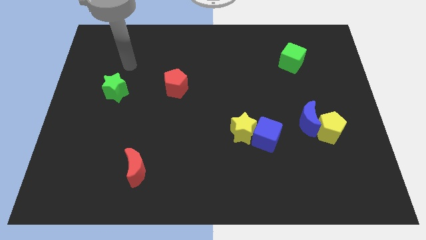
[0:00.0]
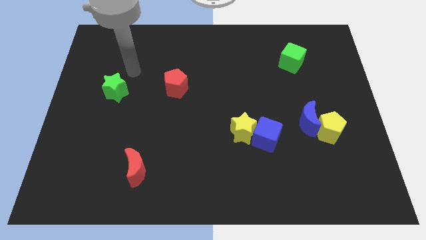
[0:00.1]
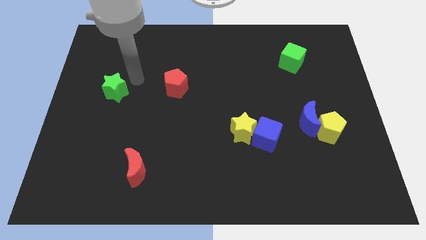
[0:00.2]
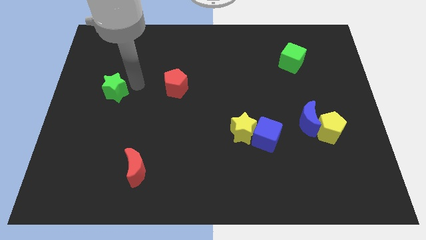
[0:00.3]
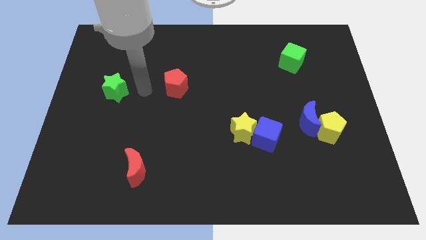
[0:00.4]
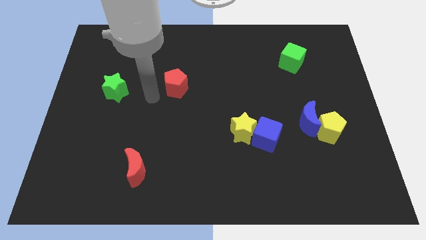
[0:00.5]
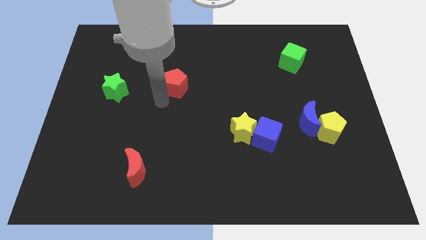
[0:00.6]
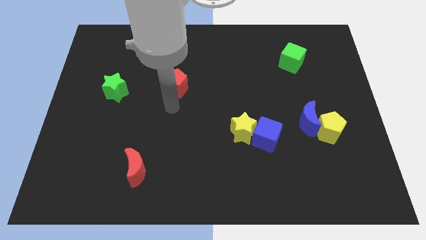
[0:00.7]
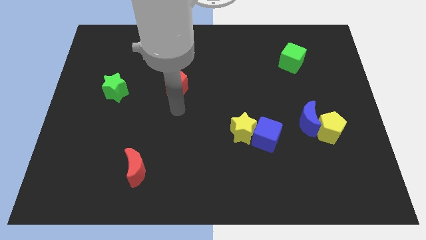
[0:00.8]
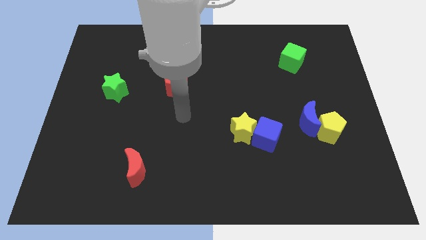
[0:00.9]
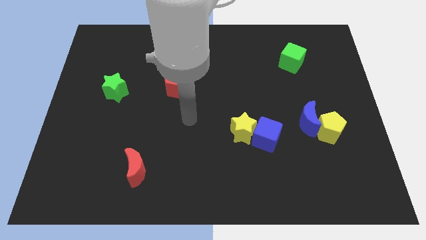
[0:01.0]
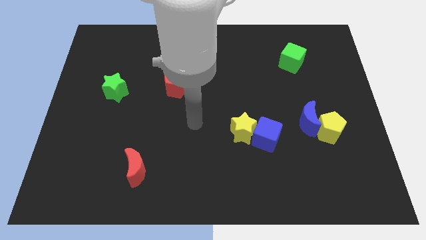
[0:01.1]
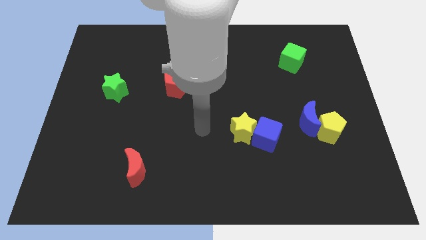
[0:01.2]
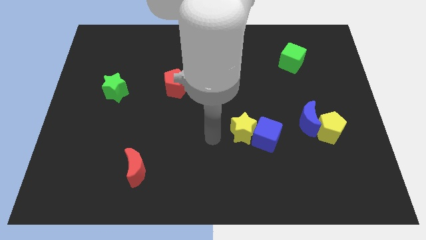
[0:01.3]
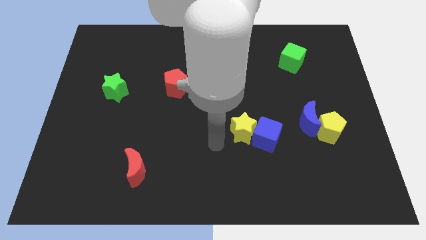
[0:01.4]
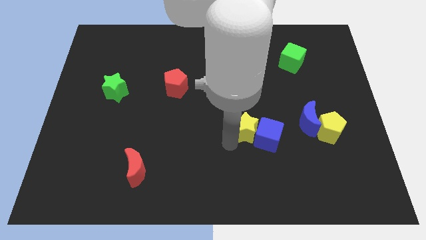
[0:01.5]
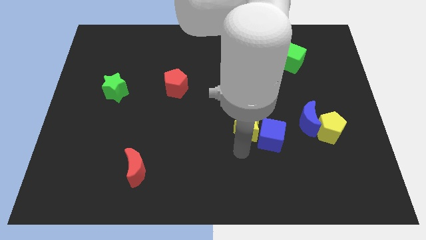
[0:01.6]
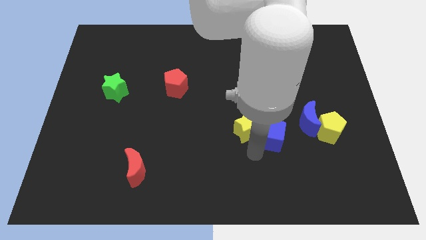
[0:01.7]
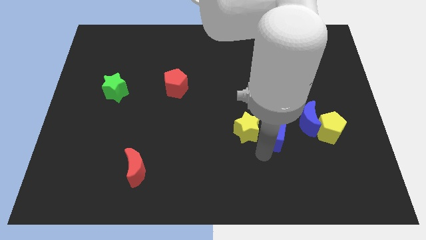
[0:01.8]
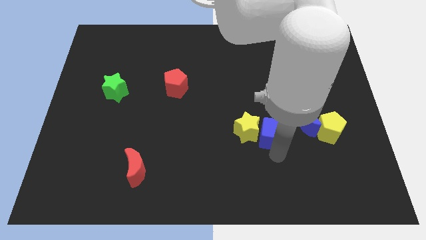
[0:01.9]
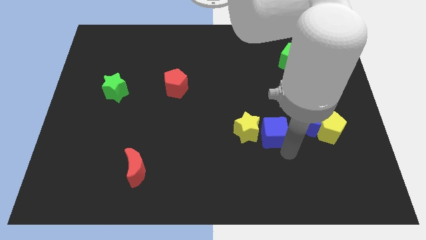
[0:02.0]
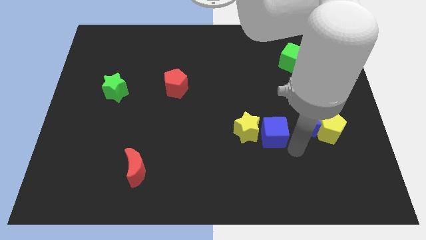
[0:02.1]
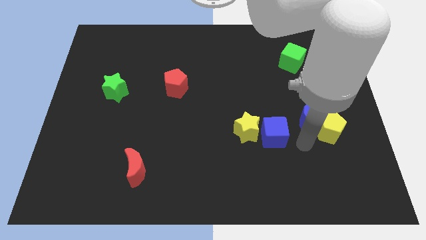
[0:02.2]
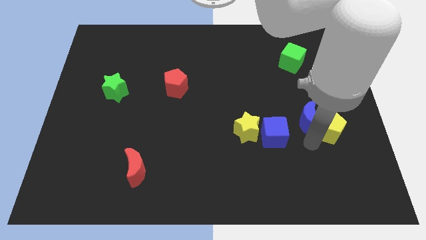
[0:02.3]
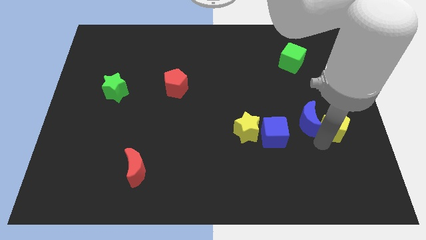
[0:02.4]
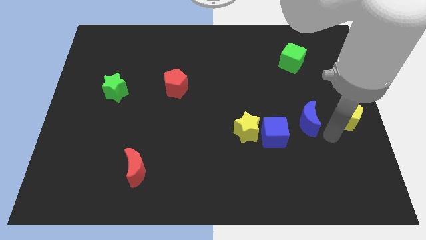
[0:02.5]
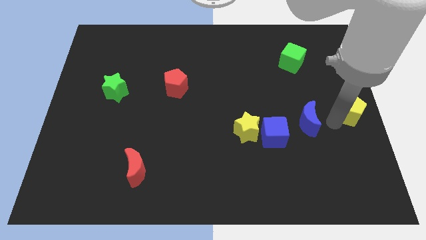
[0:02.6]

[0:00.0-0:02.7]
pull the blue moon apart from the yellow pentagon

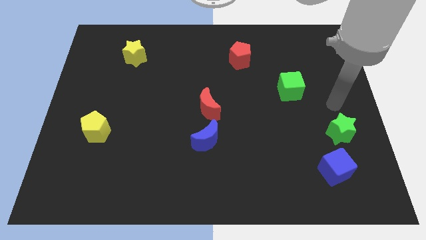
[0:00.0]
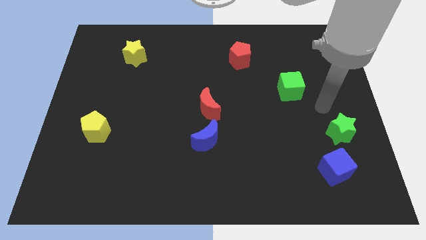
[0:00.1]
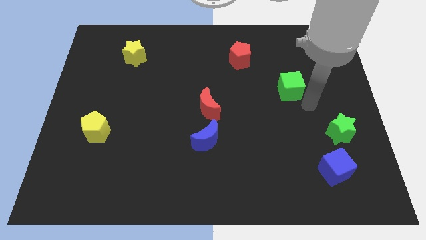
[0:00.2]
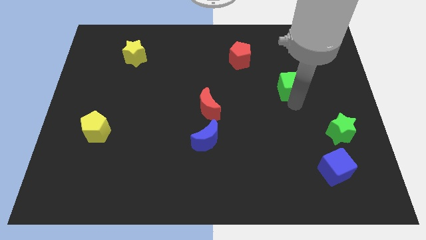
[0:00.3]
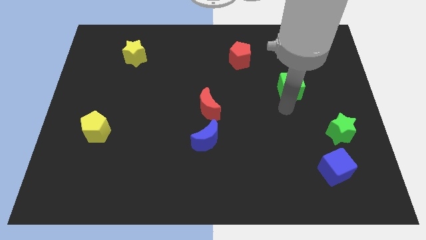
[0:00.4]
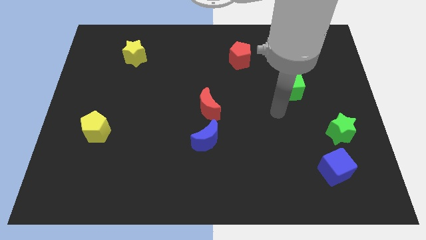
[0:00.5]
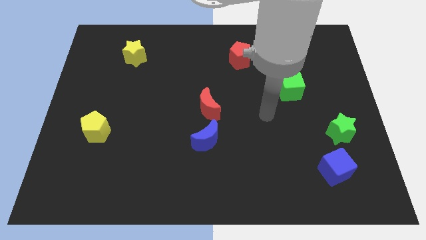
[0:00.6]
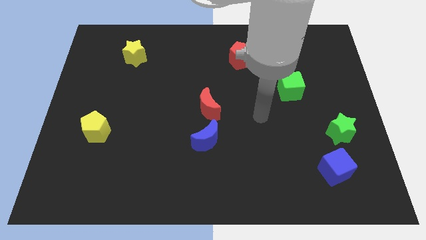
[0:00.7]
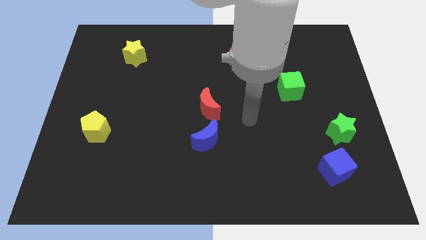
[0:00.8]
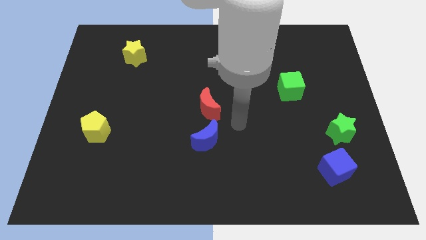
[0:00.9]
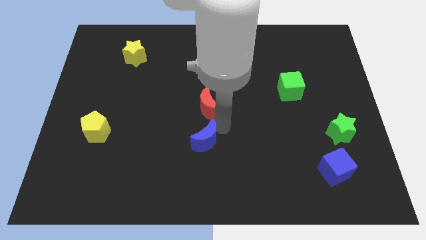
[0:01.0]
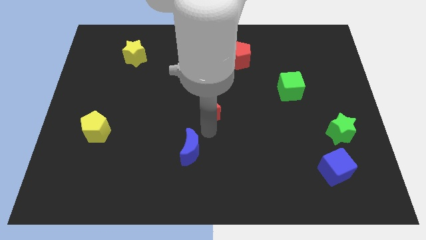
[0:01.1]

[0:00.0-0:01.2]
pull the red moon apart from the blue moon

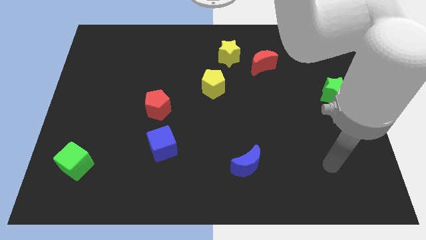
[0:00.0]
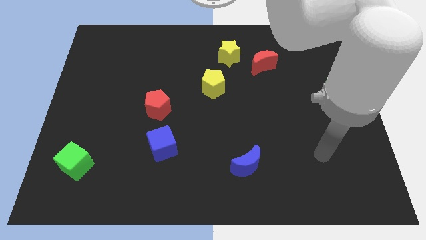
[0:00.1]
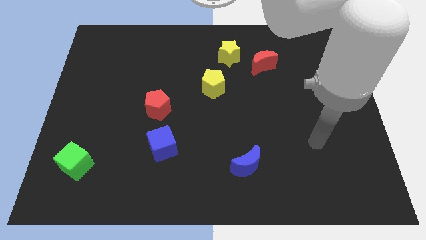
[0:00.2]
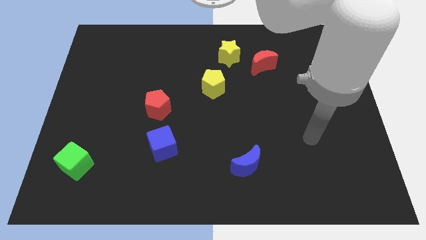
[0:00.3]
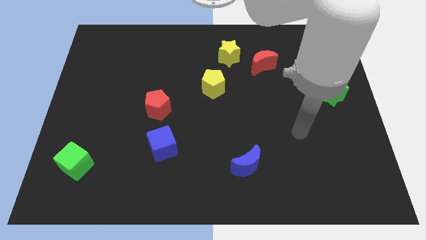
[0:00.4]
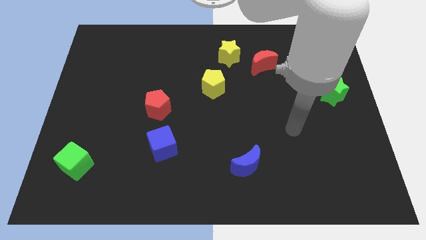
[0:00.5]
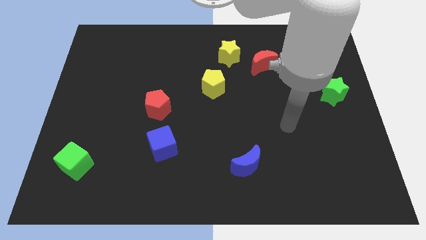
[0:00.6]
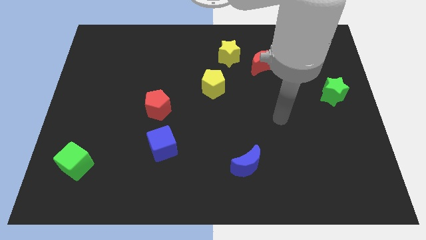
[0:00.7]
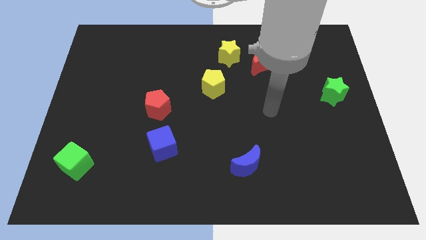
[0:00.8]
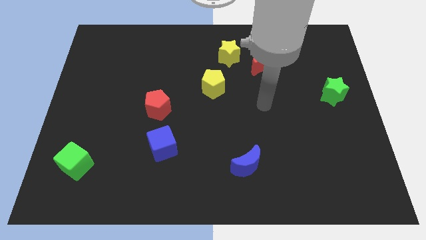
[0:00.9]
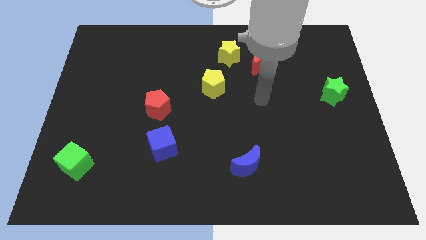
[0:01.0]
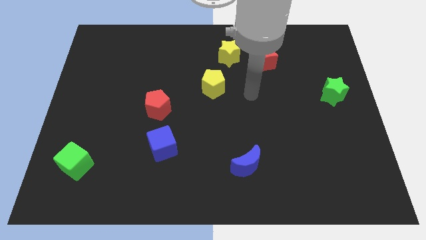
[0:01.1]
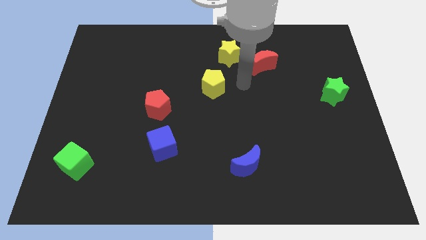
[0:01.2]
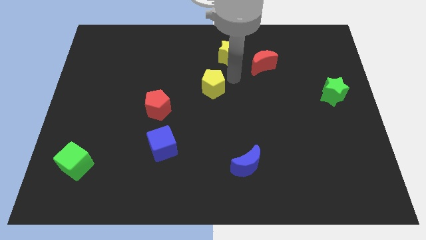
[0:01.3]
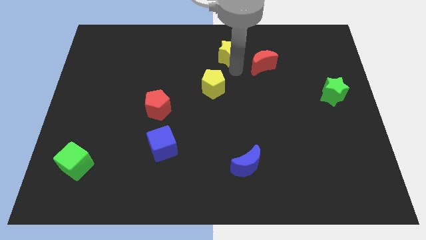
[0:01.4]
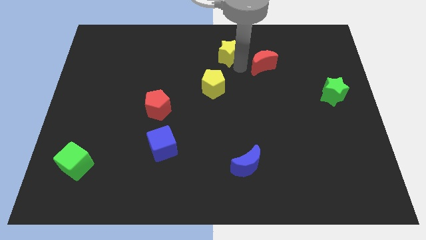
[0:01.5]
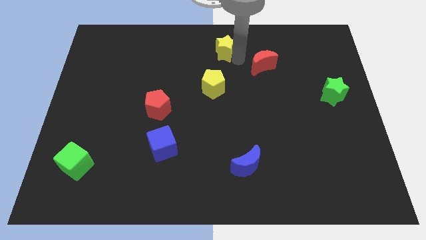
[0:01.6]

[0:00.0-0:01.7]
pull the red moon apart from the yellow star

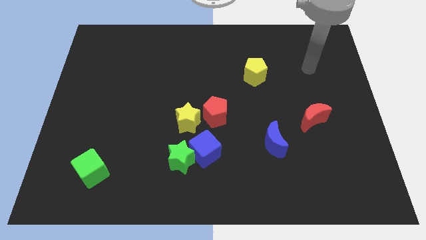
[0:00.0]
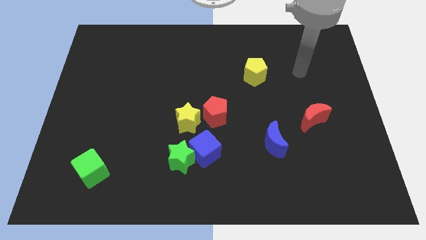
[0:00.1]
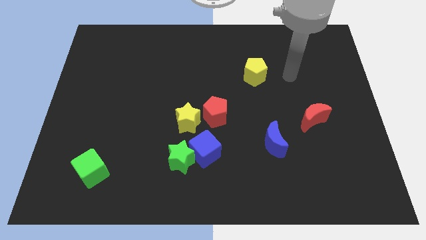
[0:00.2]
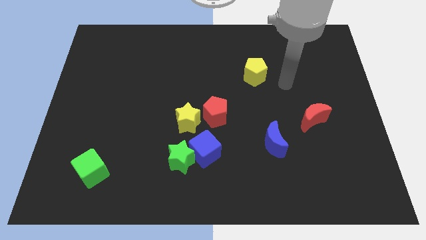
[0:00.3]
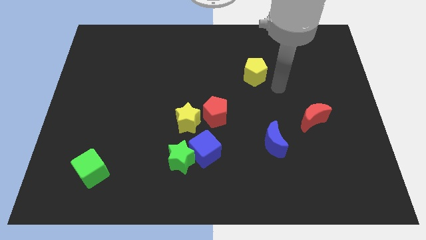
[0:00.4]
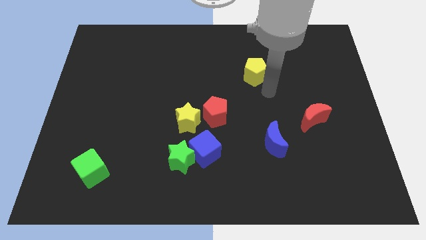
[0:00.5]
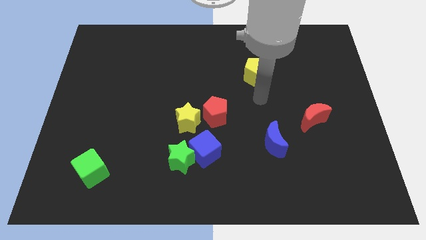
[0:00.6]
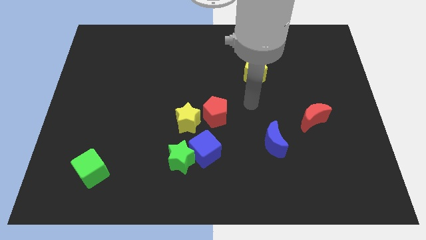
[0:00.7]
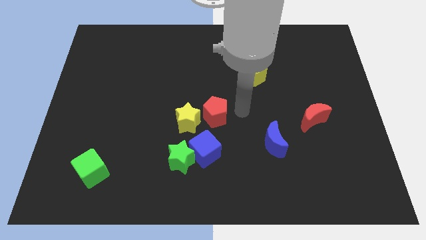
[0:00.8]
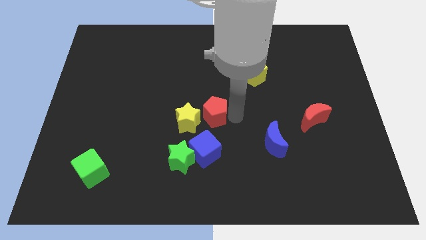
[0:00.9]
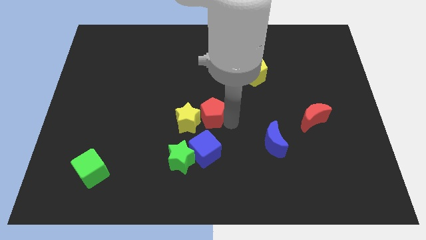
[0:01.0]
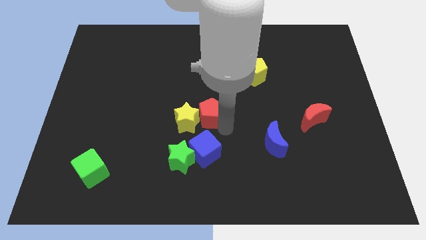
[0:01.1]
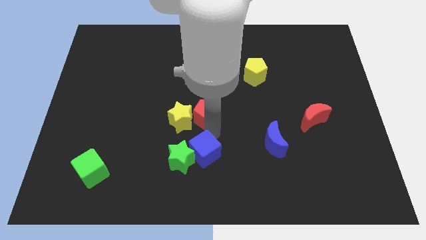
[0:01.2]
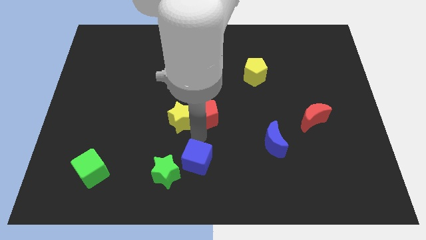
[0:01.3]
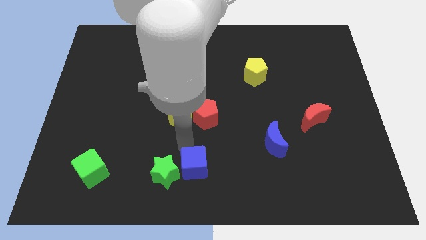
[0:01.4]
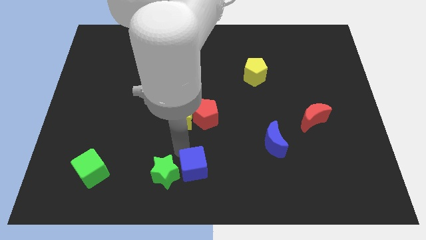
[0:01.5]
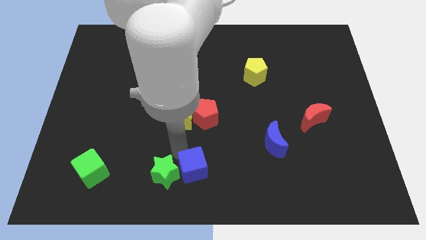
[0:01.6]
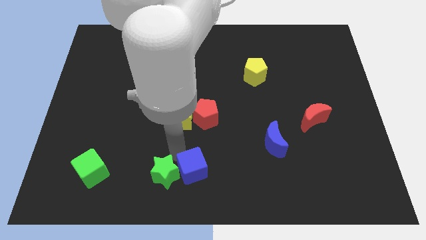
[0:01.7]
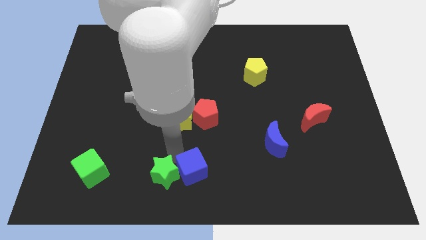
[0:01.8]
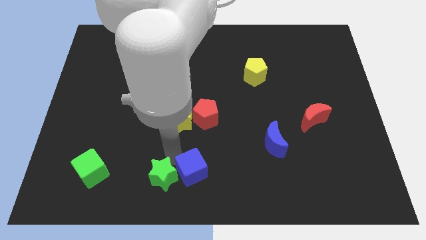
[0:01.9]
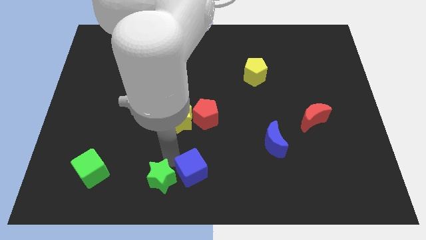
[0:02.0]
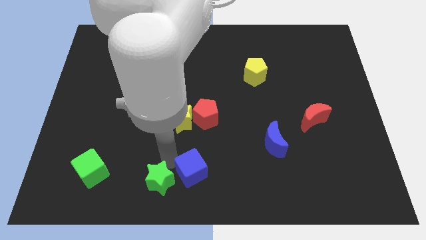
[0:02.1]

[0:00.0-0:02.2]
move the green star away from the blue cube and yellow star

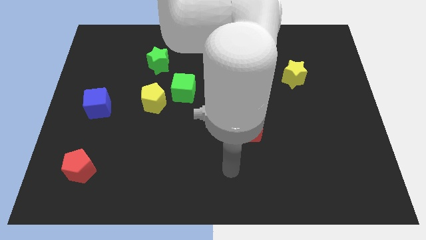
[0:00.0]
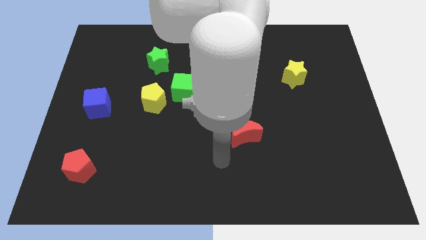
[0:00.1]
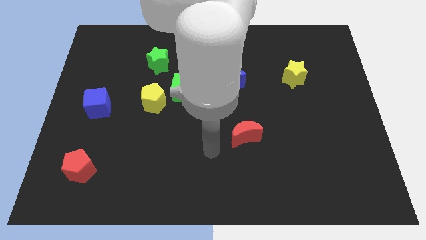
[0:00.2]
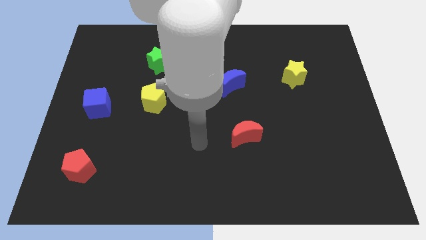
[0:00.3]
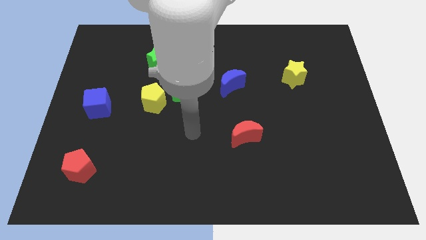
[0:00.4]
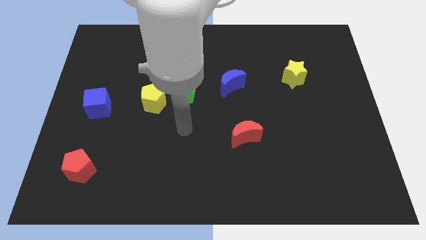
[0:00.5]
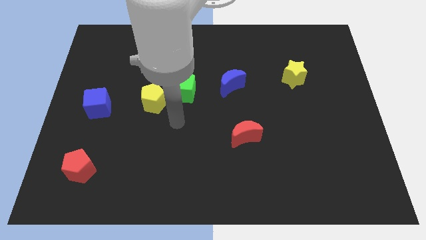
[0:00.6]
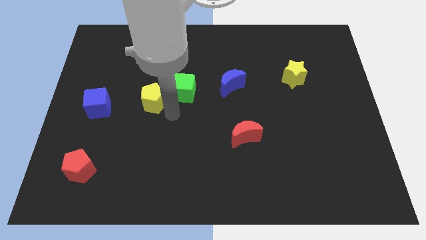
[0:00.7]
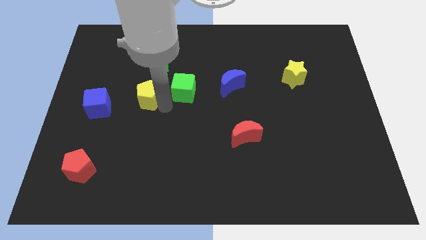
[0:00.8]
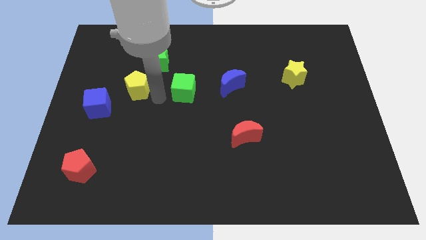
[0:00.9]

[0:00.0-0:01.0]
separate the green cube from the yellow pentagon

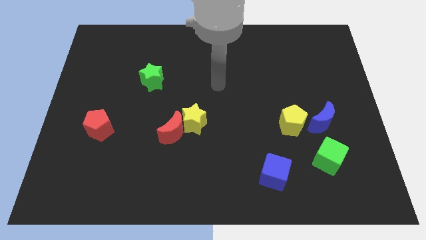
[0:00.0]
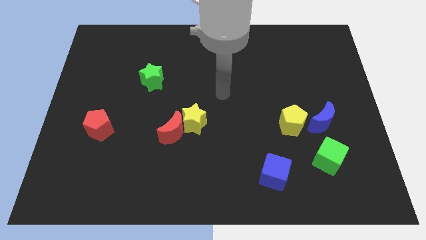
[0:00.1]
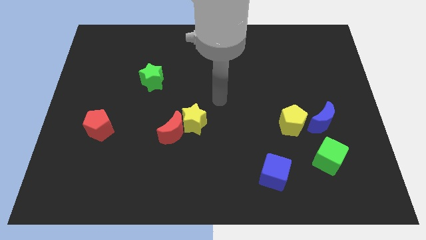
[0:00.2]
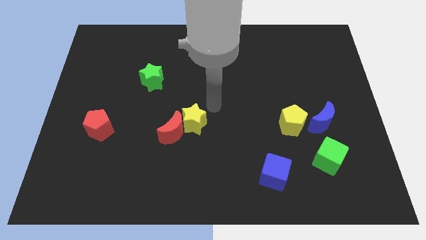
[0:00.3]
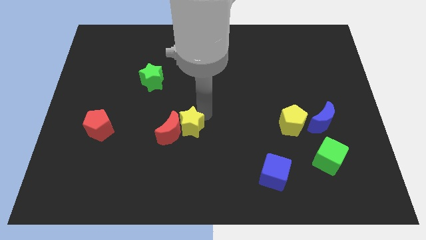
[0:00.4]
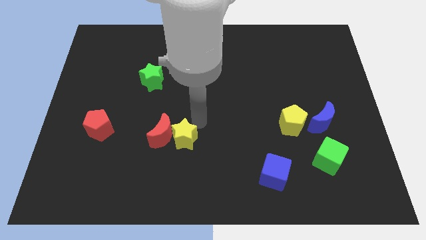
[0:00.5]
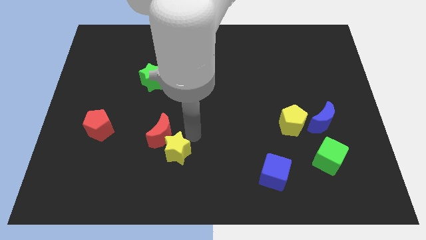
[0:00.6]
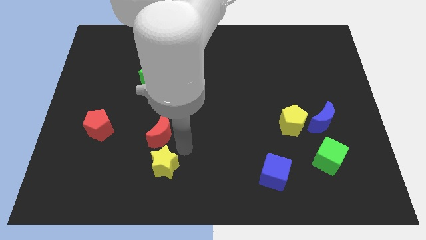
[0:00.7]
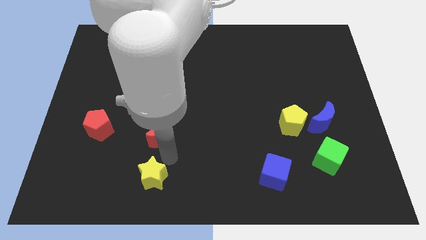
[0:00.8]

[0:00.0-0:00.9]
move the red moon away from the yellow star
